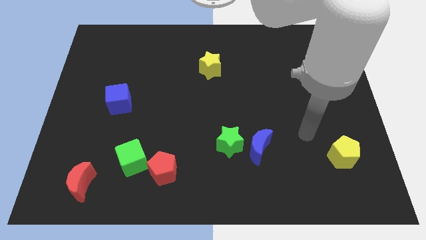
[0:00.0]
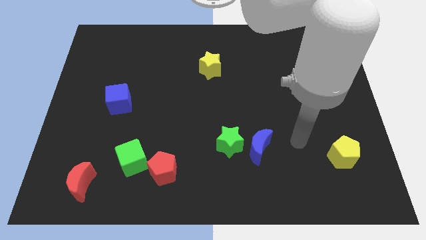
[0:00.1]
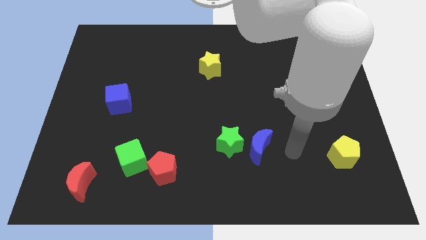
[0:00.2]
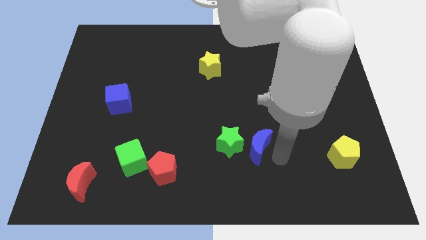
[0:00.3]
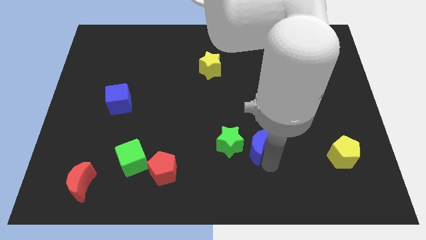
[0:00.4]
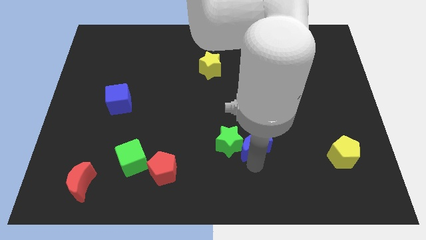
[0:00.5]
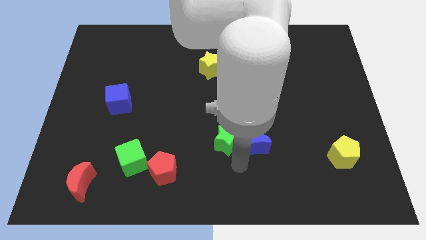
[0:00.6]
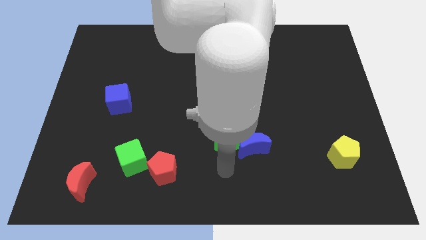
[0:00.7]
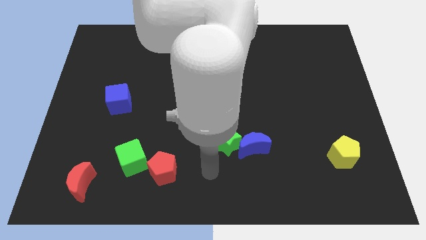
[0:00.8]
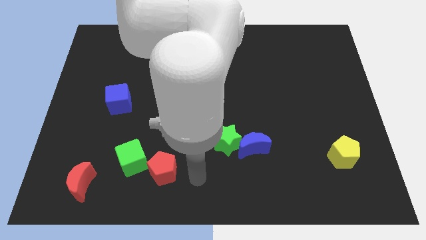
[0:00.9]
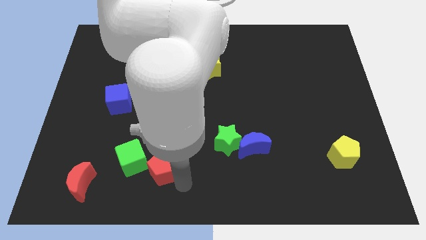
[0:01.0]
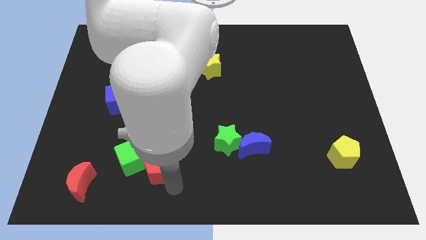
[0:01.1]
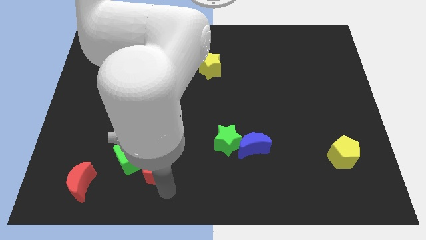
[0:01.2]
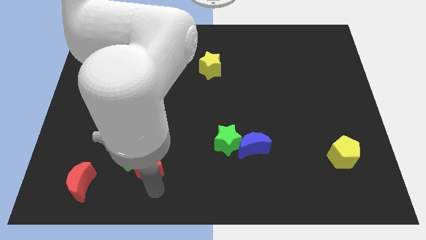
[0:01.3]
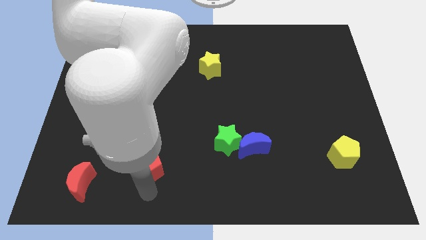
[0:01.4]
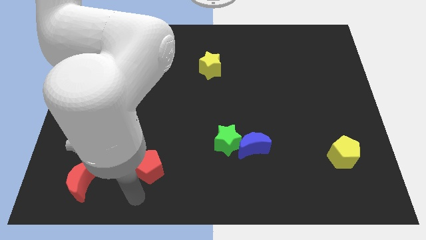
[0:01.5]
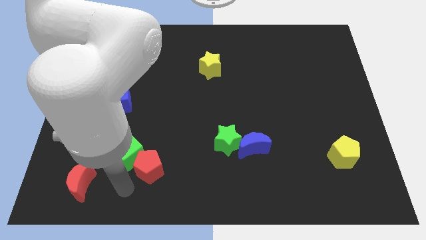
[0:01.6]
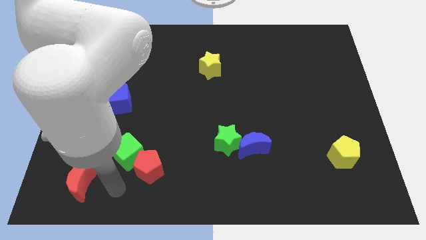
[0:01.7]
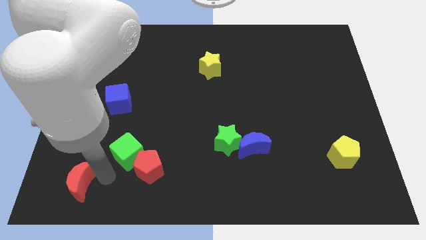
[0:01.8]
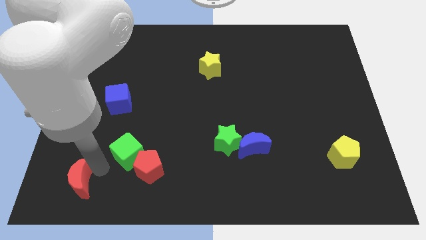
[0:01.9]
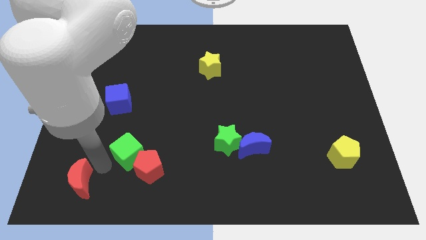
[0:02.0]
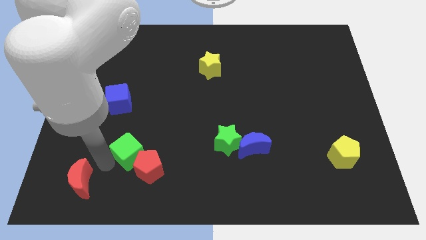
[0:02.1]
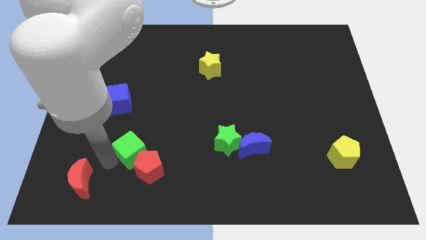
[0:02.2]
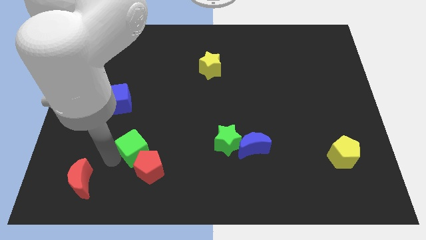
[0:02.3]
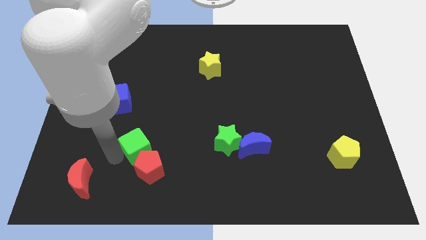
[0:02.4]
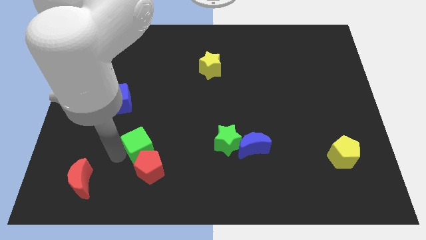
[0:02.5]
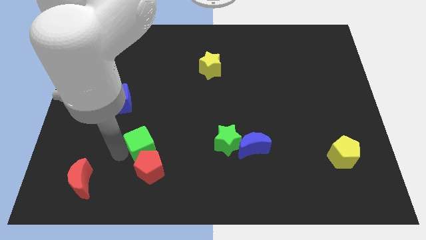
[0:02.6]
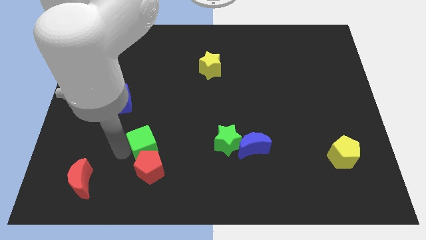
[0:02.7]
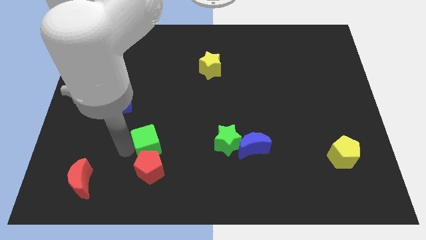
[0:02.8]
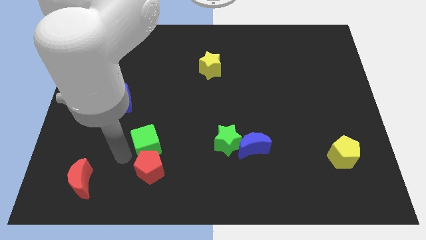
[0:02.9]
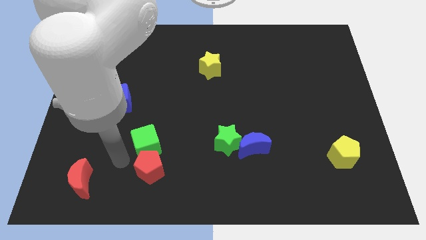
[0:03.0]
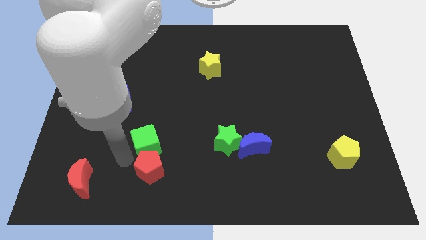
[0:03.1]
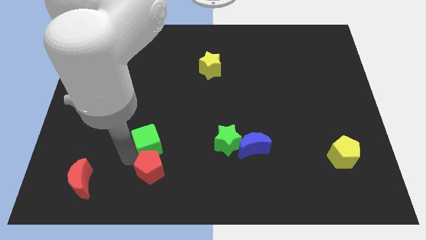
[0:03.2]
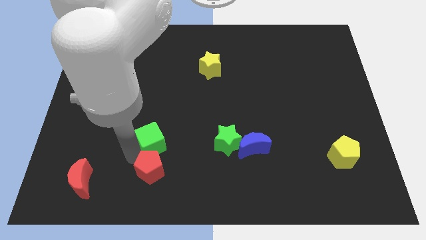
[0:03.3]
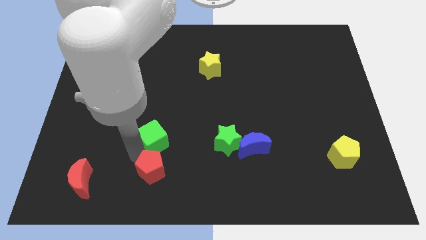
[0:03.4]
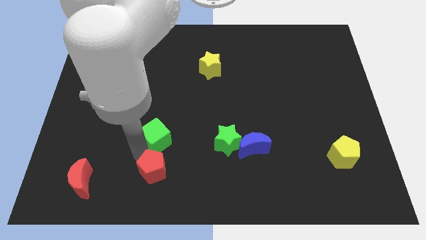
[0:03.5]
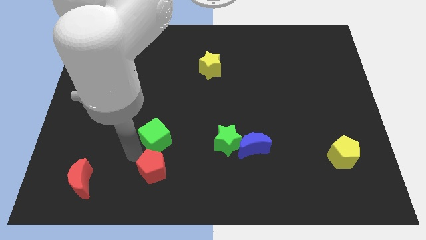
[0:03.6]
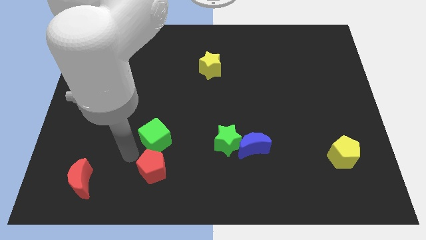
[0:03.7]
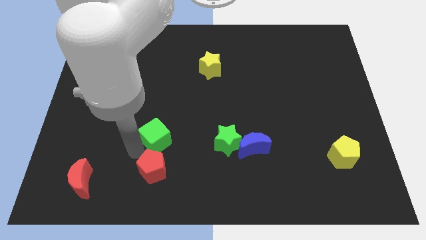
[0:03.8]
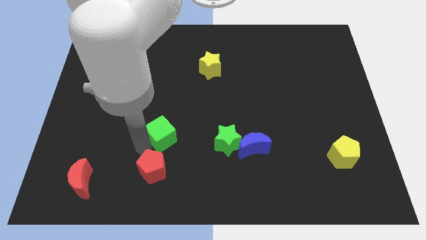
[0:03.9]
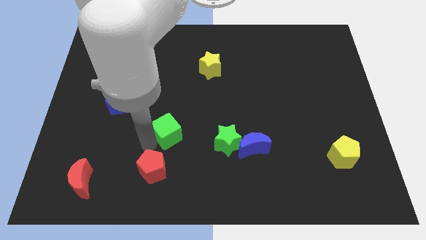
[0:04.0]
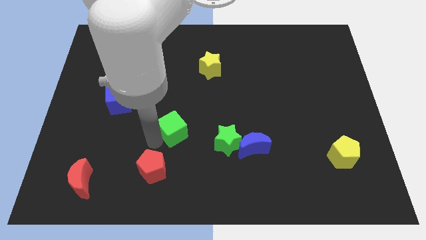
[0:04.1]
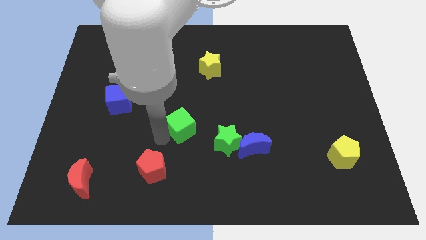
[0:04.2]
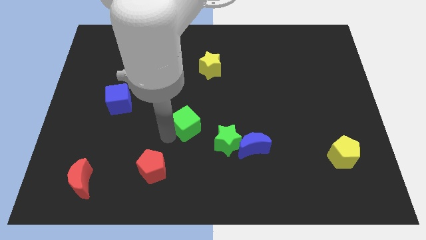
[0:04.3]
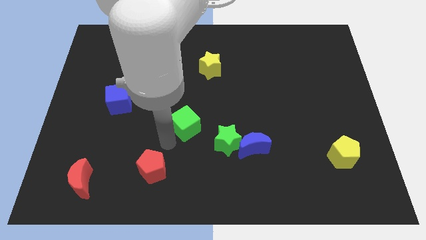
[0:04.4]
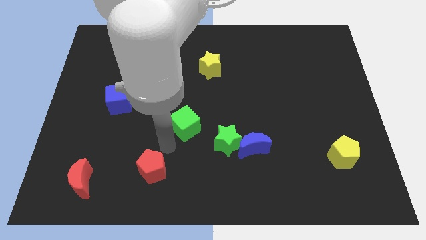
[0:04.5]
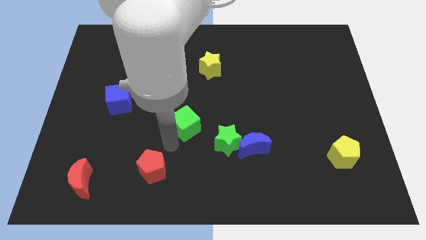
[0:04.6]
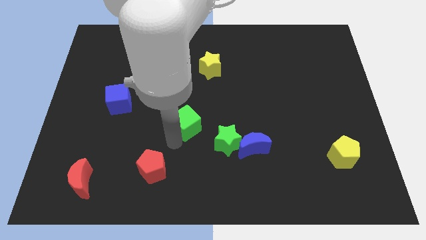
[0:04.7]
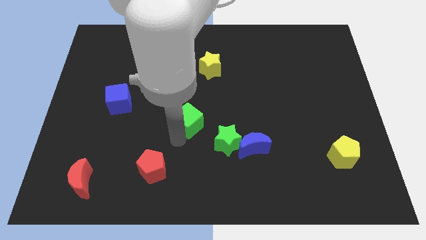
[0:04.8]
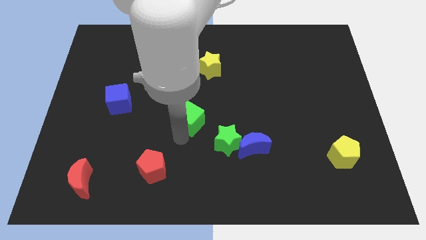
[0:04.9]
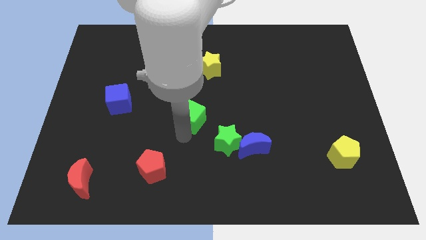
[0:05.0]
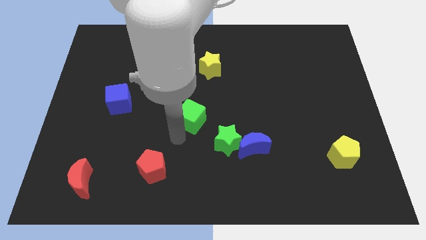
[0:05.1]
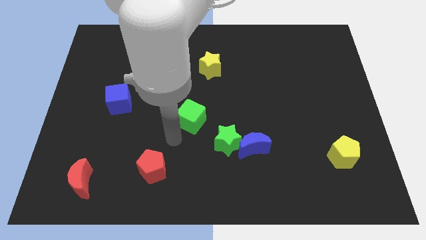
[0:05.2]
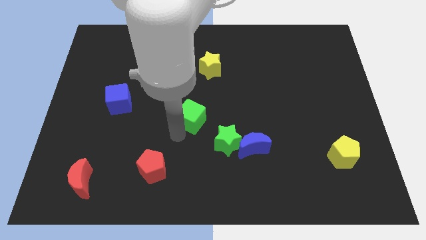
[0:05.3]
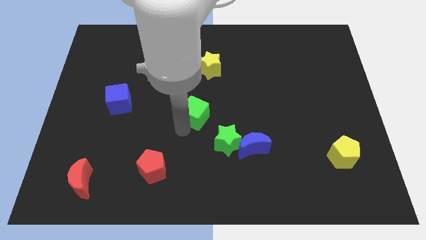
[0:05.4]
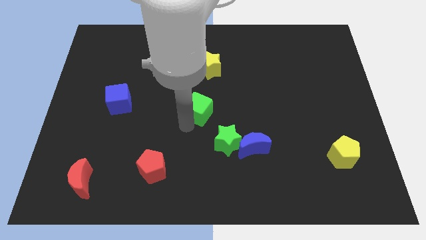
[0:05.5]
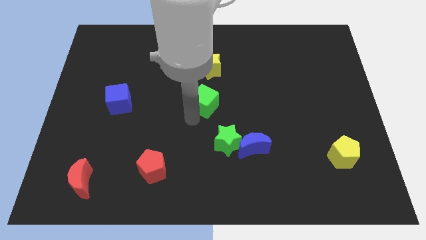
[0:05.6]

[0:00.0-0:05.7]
slide the green cube upwards and then right

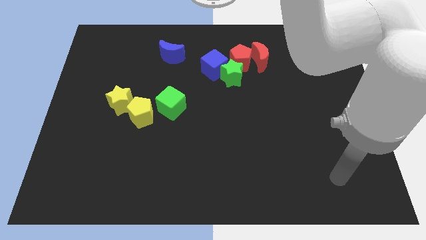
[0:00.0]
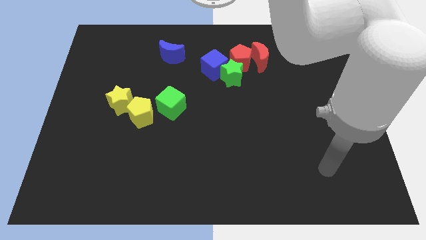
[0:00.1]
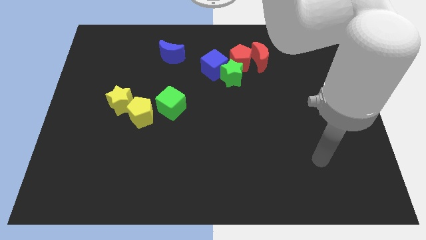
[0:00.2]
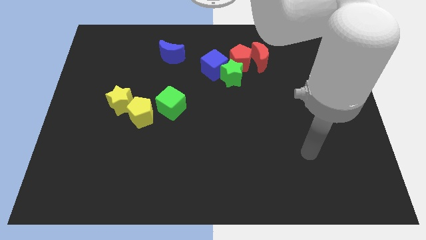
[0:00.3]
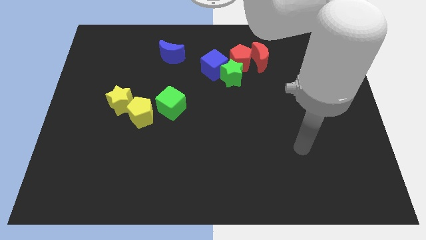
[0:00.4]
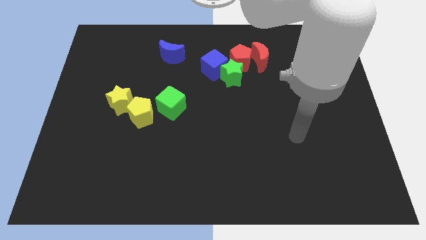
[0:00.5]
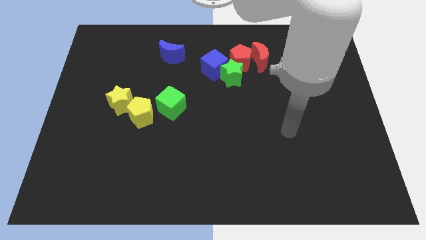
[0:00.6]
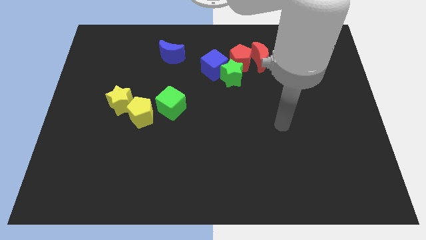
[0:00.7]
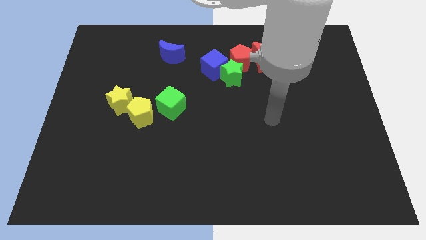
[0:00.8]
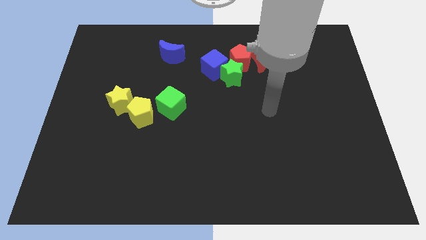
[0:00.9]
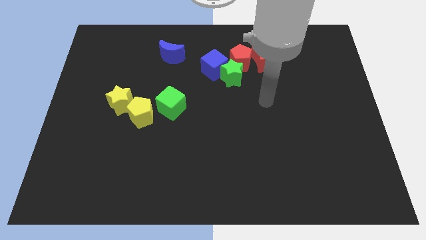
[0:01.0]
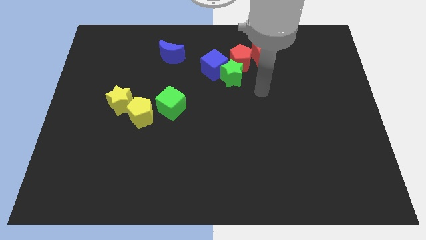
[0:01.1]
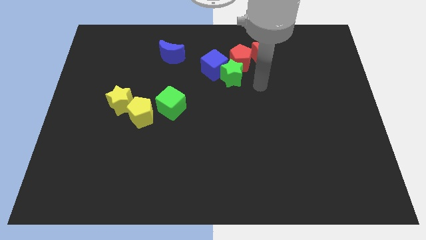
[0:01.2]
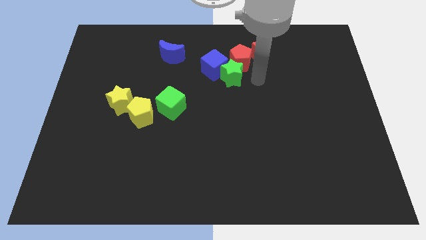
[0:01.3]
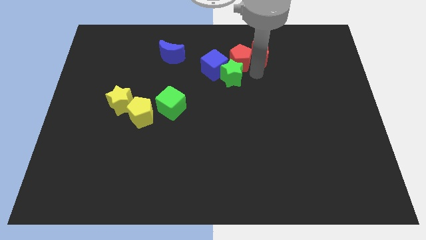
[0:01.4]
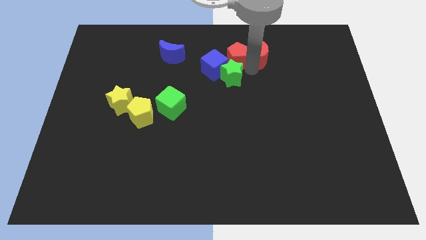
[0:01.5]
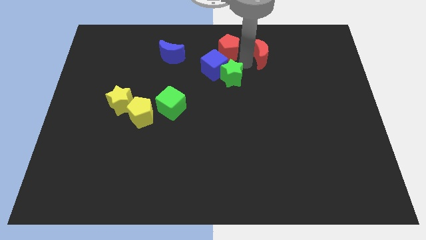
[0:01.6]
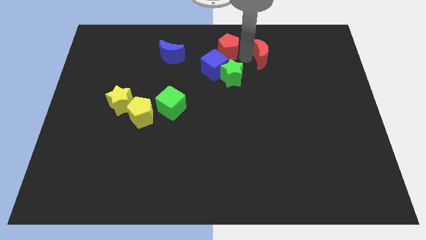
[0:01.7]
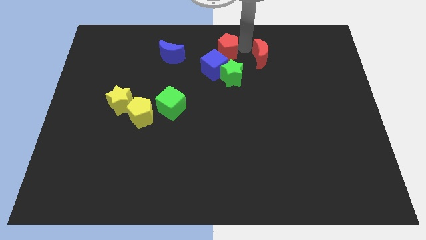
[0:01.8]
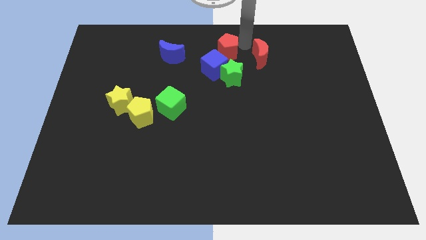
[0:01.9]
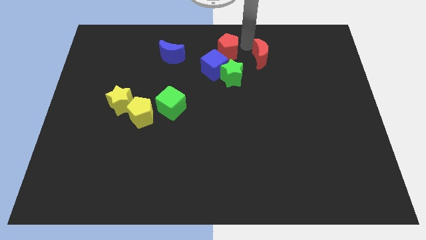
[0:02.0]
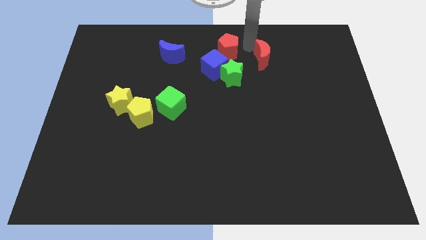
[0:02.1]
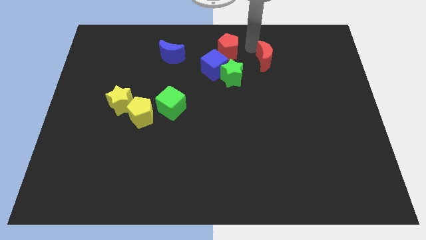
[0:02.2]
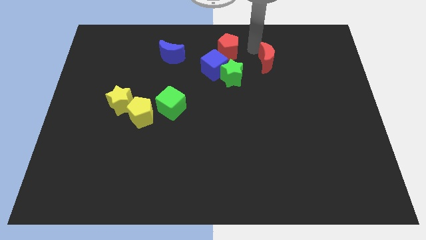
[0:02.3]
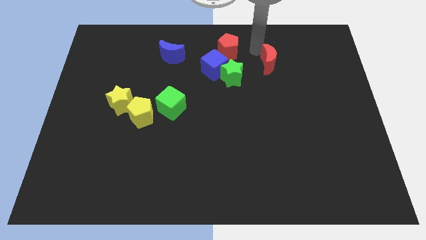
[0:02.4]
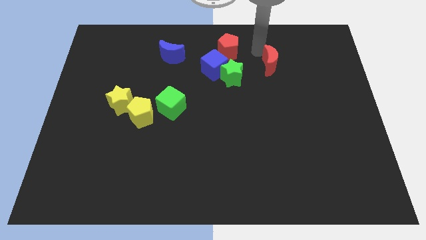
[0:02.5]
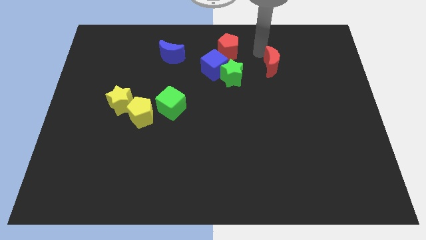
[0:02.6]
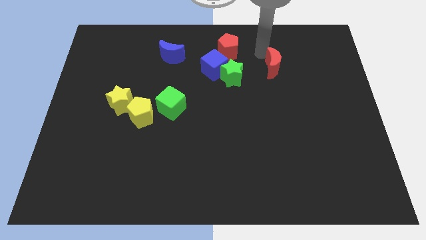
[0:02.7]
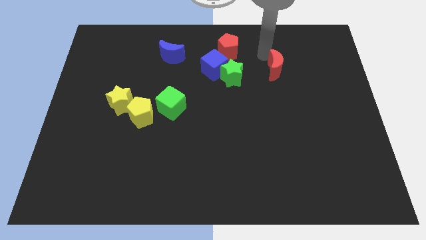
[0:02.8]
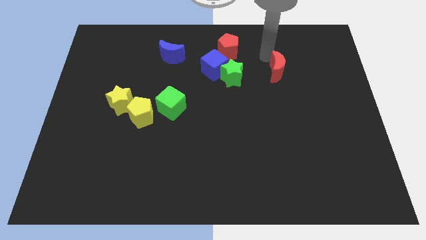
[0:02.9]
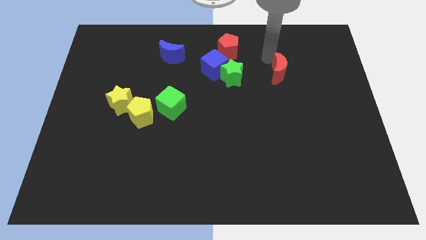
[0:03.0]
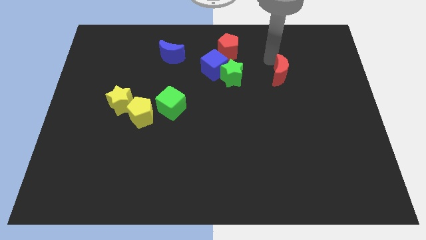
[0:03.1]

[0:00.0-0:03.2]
slide the red moon a little downwards and right
